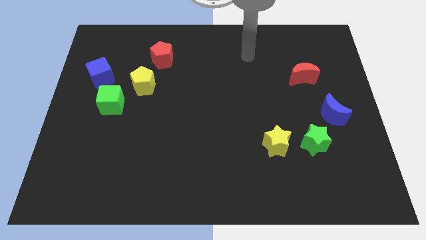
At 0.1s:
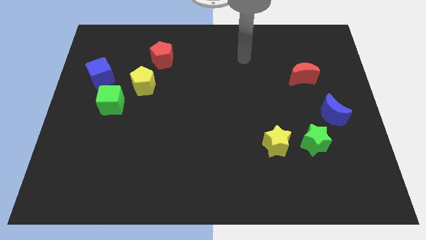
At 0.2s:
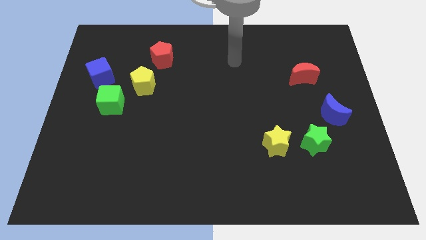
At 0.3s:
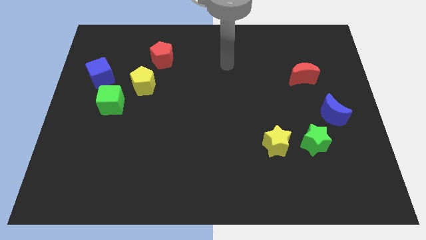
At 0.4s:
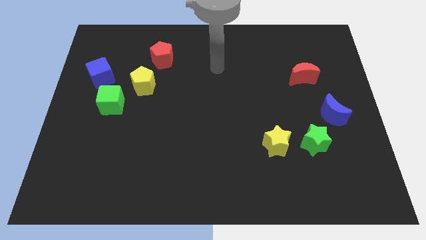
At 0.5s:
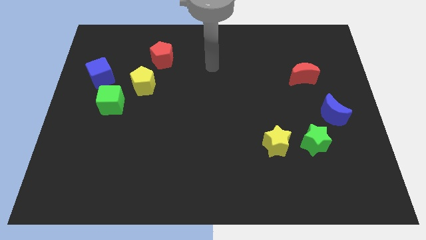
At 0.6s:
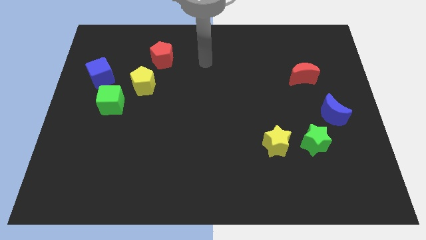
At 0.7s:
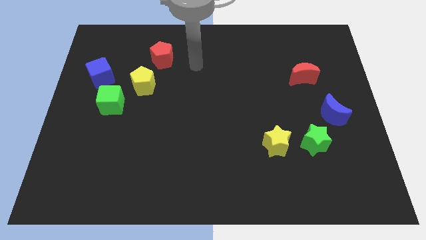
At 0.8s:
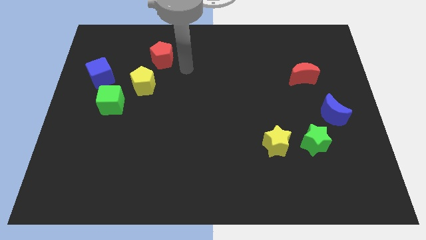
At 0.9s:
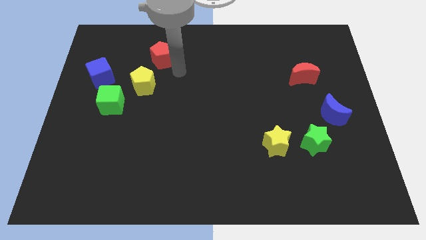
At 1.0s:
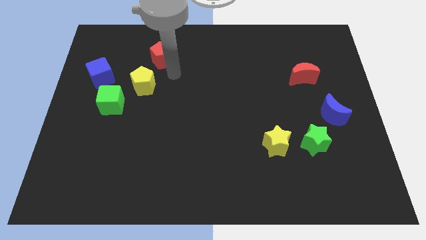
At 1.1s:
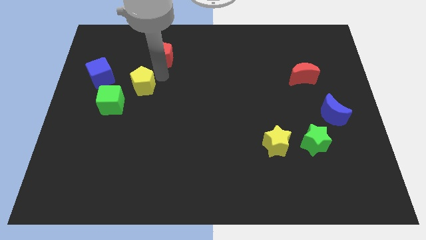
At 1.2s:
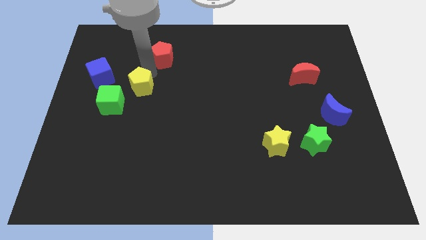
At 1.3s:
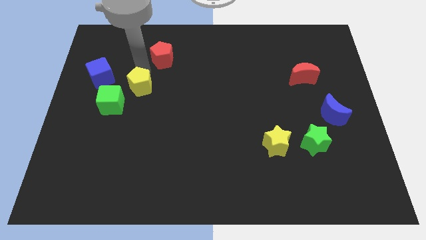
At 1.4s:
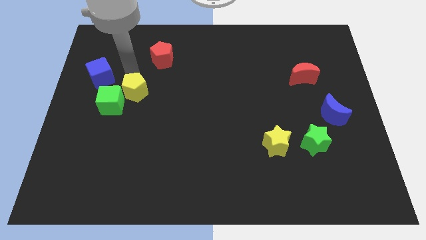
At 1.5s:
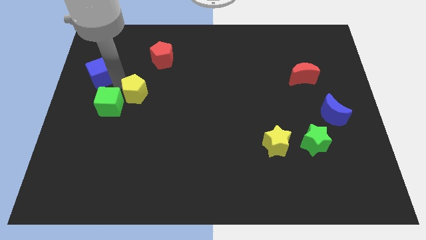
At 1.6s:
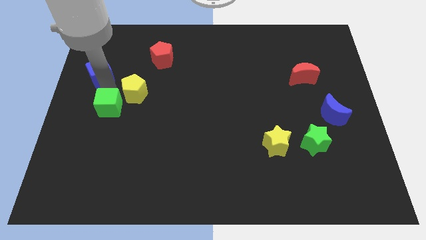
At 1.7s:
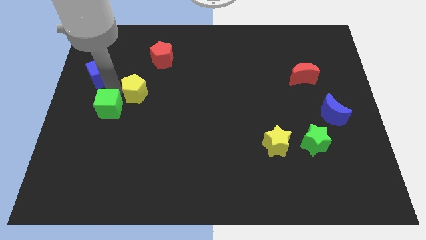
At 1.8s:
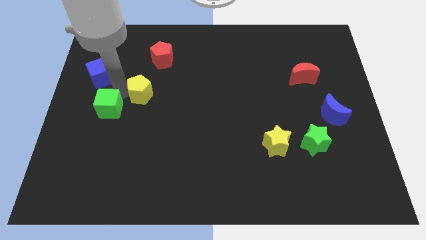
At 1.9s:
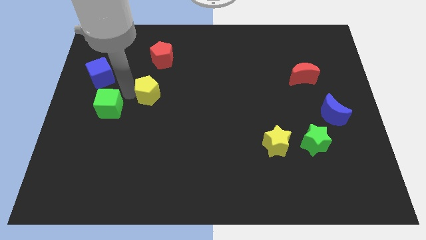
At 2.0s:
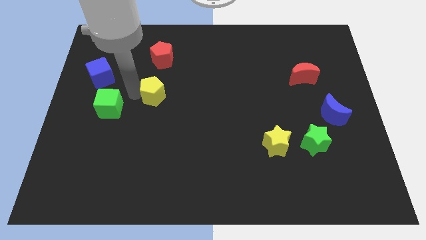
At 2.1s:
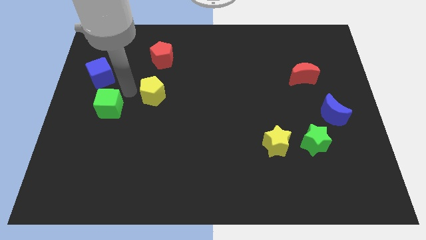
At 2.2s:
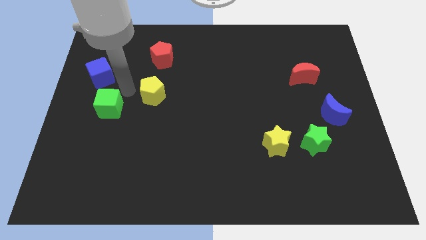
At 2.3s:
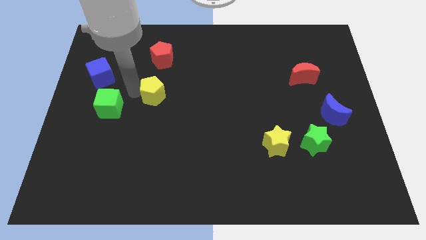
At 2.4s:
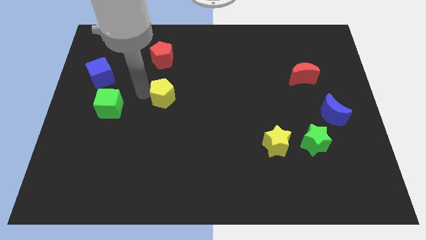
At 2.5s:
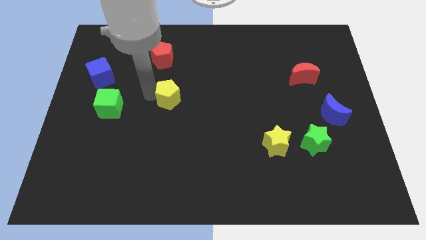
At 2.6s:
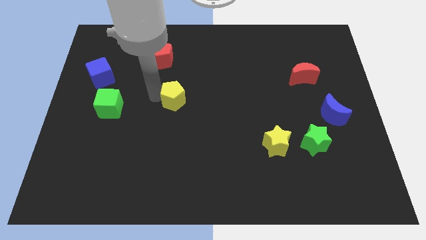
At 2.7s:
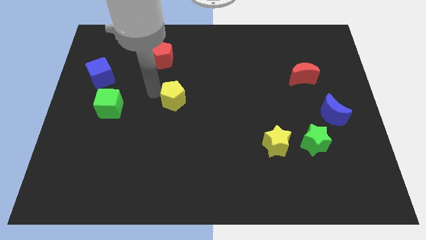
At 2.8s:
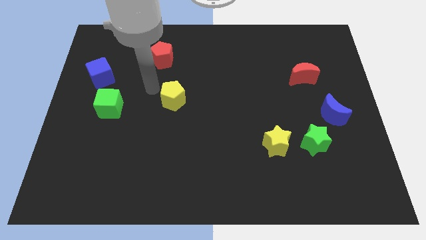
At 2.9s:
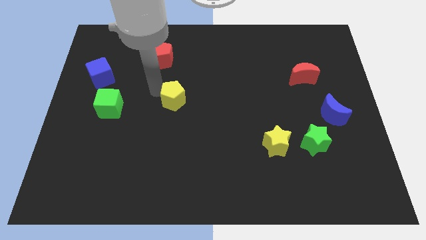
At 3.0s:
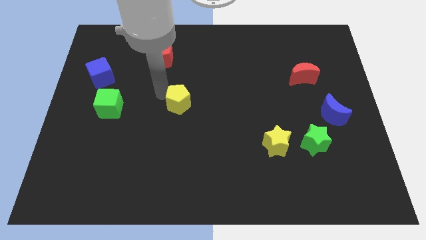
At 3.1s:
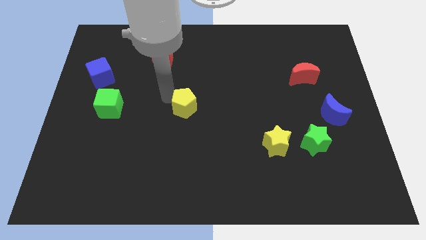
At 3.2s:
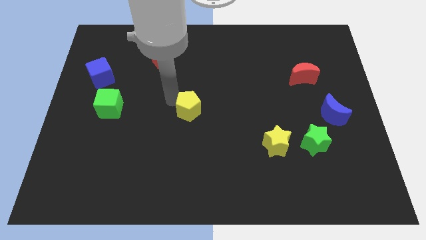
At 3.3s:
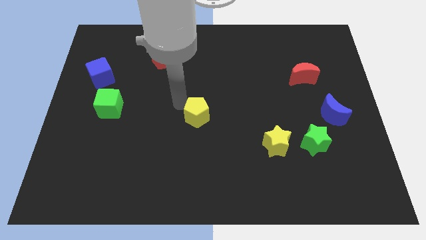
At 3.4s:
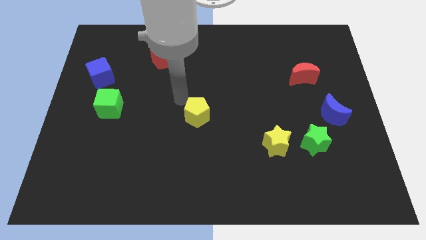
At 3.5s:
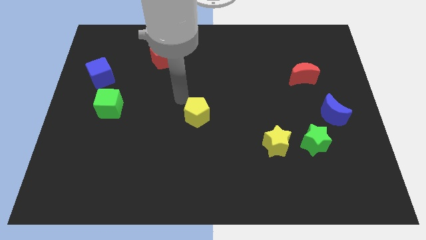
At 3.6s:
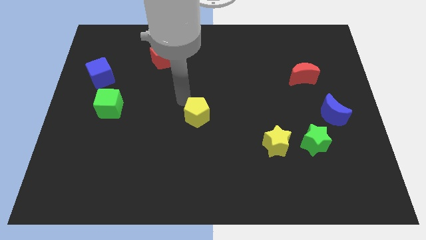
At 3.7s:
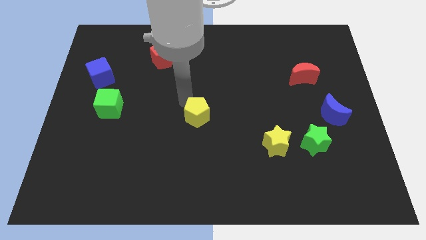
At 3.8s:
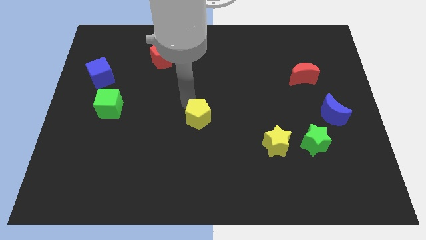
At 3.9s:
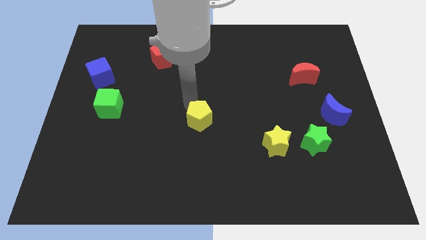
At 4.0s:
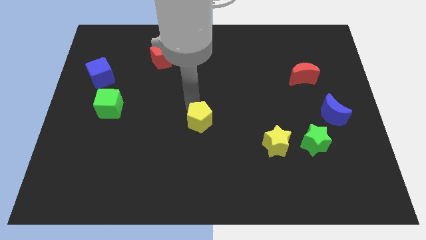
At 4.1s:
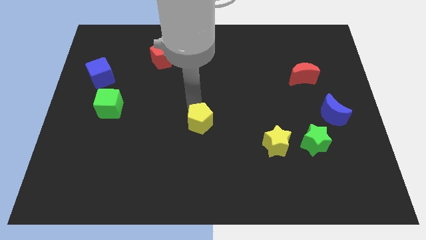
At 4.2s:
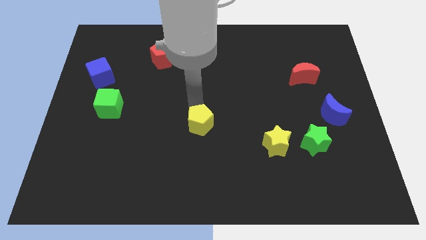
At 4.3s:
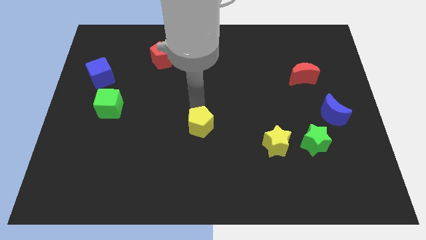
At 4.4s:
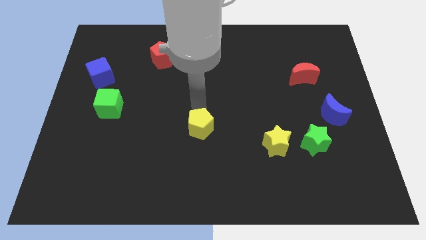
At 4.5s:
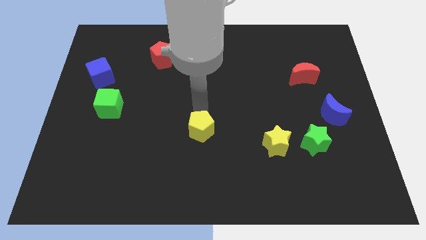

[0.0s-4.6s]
slide the yellow pentagon diagonally downwards and to the right

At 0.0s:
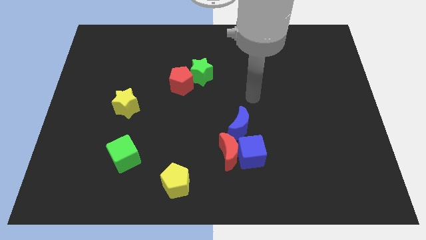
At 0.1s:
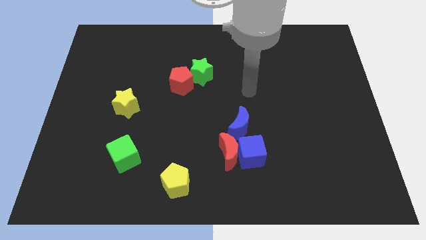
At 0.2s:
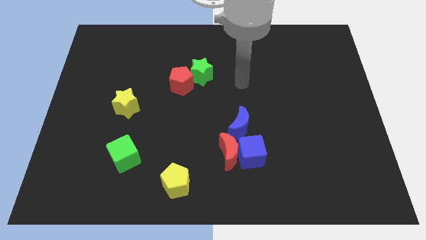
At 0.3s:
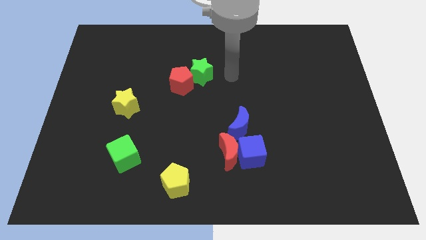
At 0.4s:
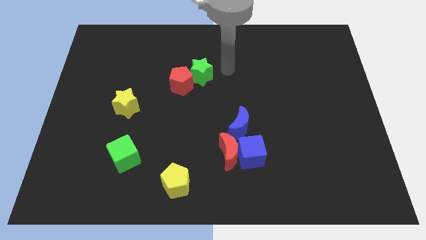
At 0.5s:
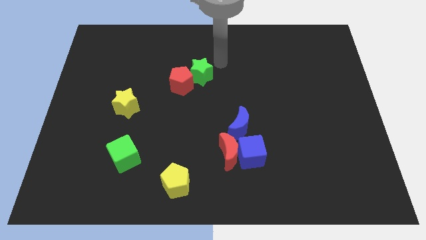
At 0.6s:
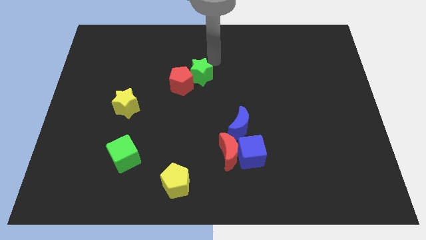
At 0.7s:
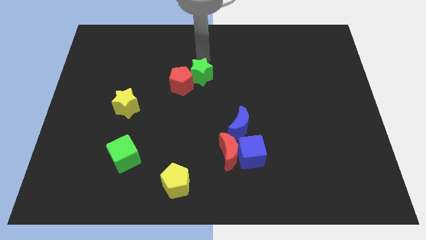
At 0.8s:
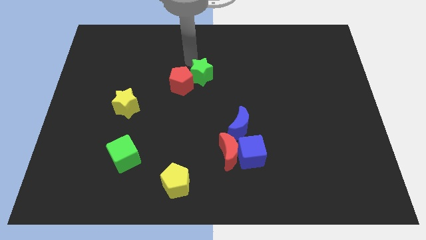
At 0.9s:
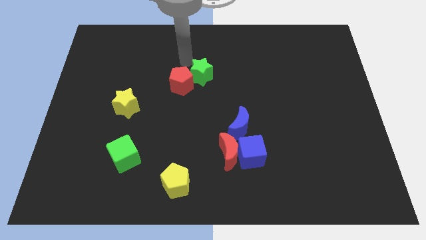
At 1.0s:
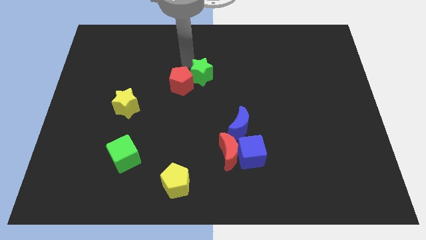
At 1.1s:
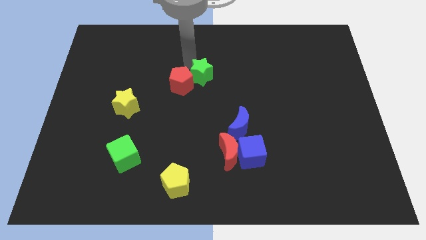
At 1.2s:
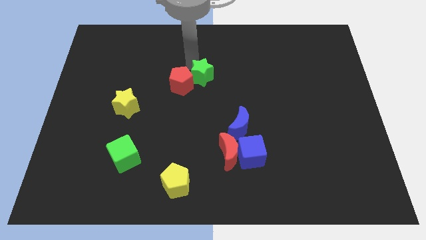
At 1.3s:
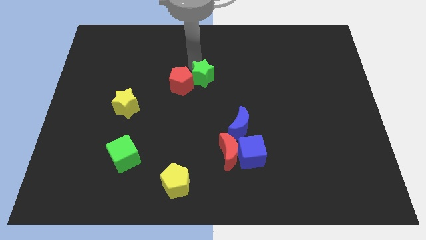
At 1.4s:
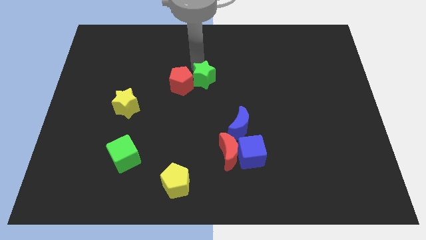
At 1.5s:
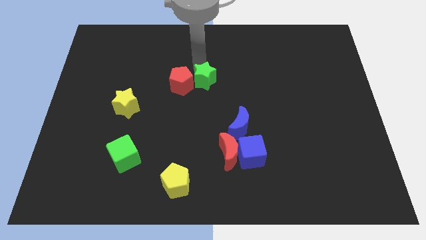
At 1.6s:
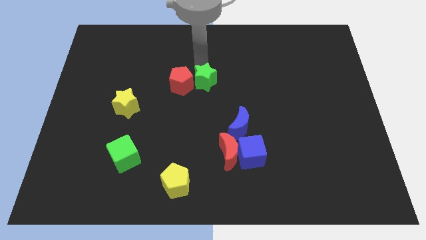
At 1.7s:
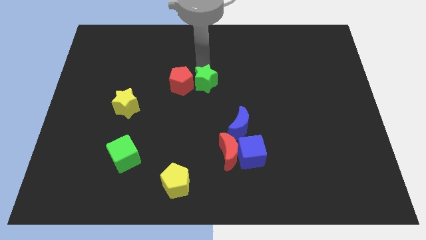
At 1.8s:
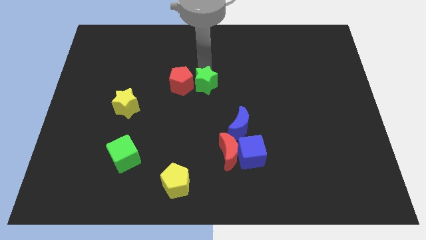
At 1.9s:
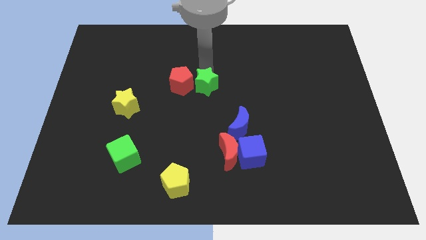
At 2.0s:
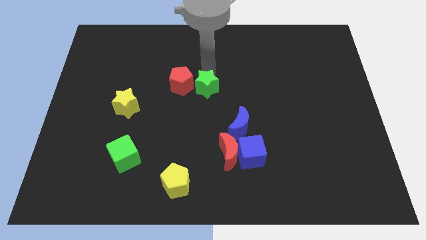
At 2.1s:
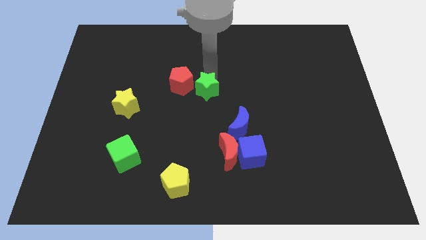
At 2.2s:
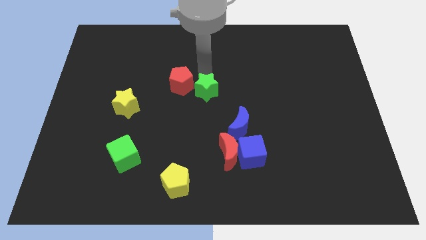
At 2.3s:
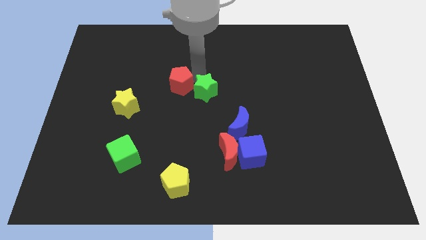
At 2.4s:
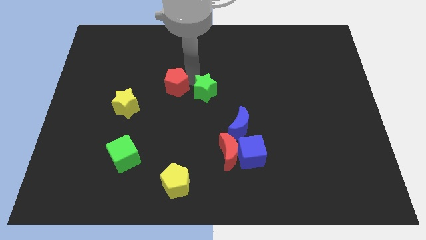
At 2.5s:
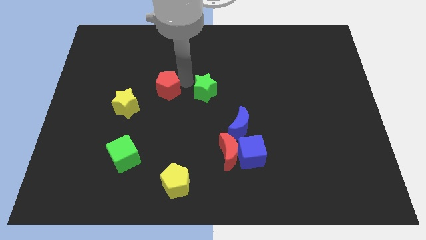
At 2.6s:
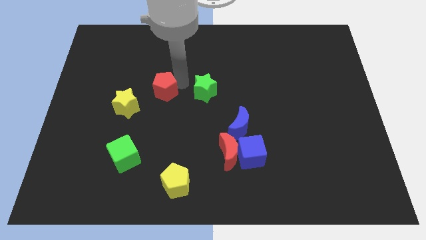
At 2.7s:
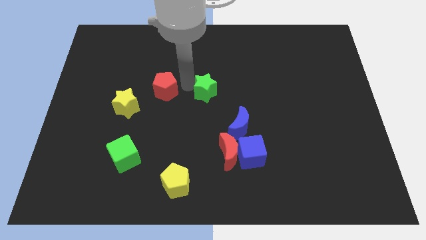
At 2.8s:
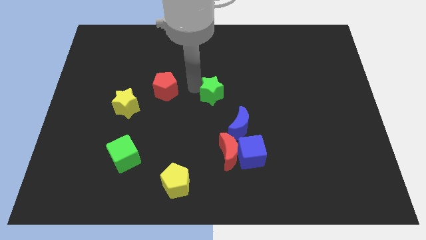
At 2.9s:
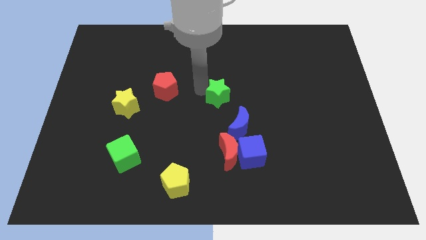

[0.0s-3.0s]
push the green star a bit down and to the right

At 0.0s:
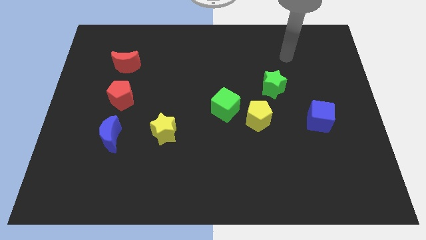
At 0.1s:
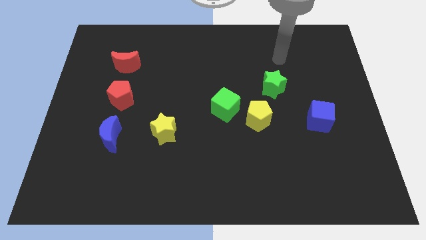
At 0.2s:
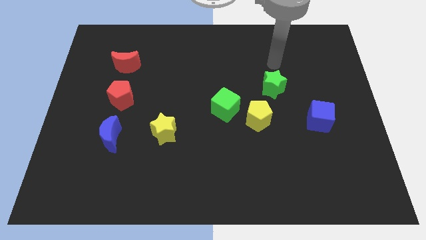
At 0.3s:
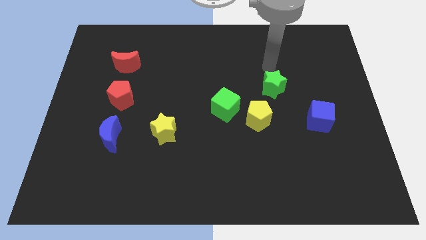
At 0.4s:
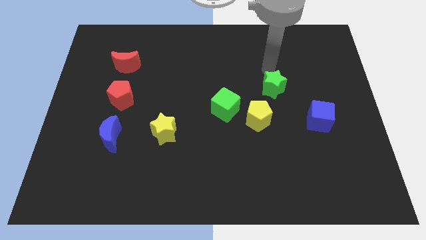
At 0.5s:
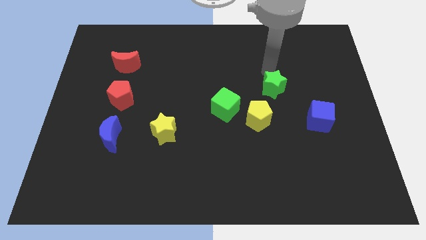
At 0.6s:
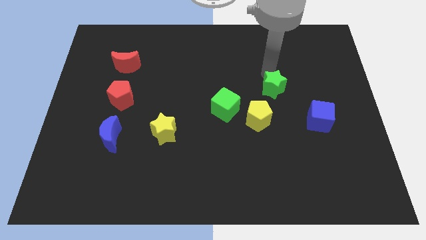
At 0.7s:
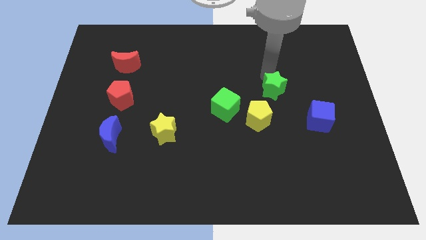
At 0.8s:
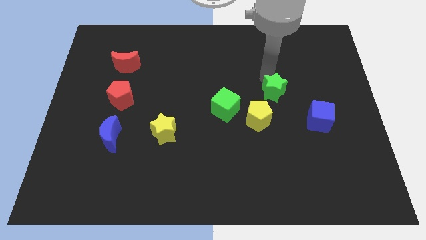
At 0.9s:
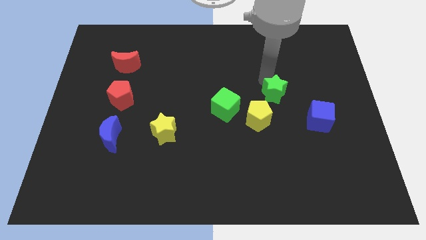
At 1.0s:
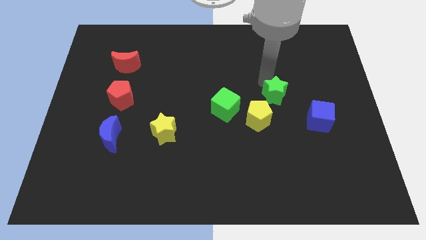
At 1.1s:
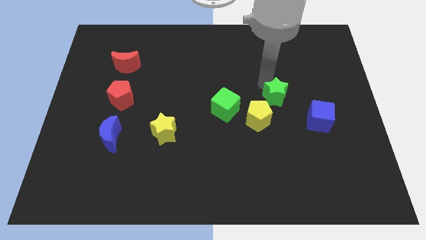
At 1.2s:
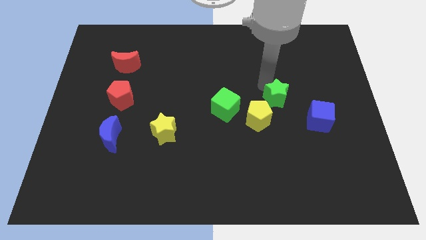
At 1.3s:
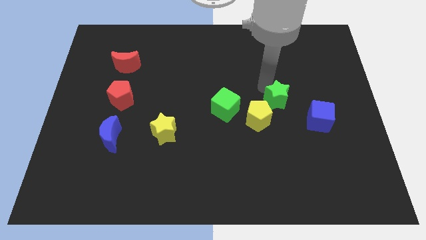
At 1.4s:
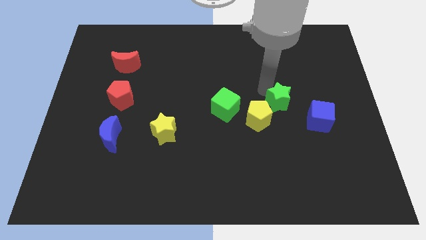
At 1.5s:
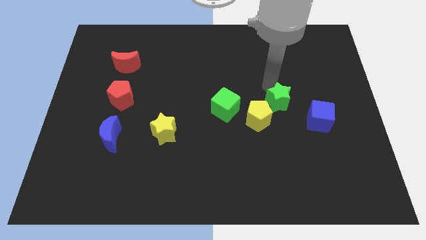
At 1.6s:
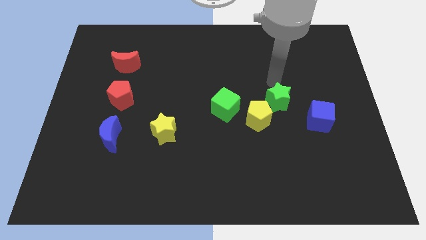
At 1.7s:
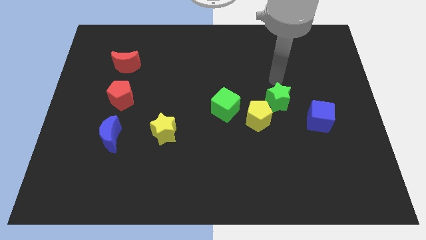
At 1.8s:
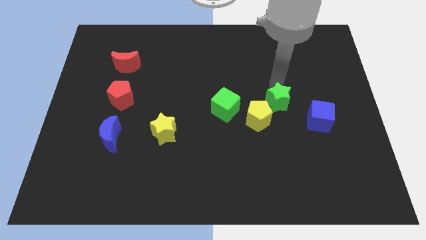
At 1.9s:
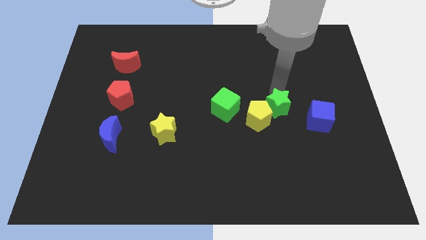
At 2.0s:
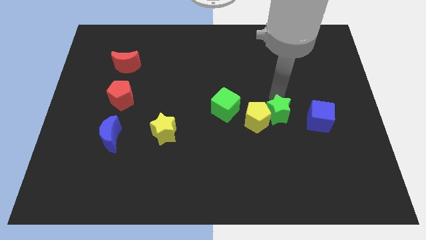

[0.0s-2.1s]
slightly slide the green star downwards
